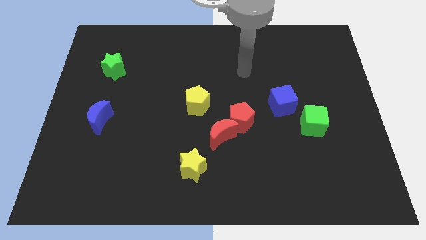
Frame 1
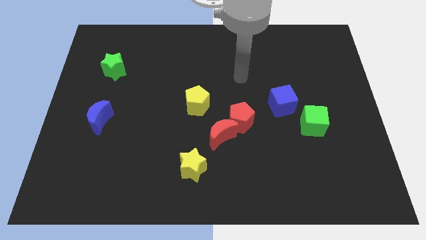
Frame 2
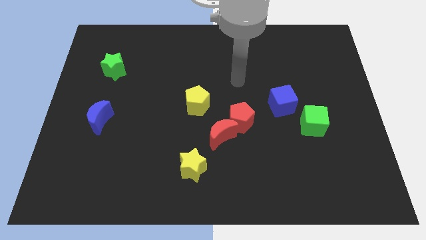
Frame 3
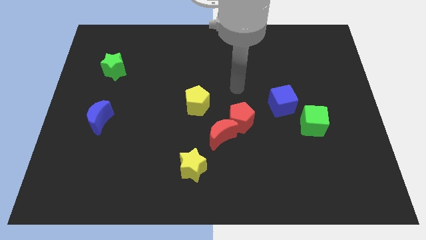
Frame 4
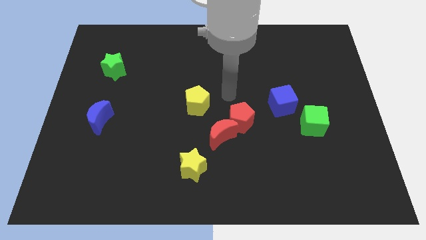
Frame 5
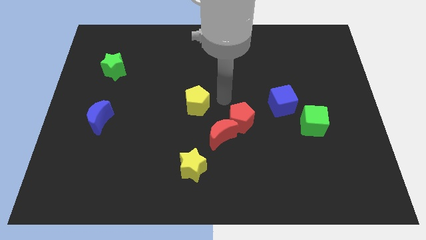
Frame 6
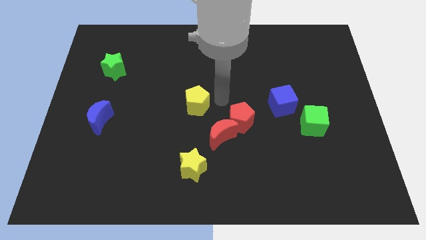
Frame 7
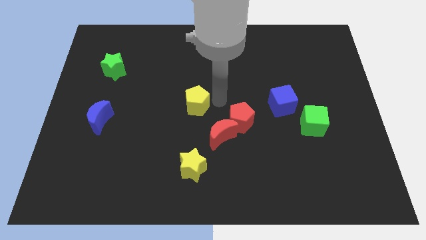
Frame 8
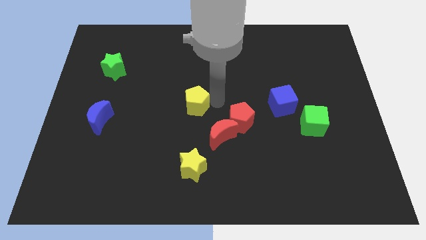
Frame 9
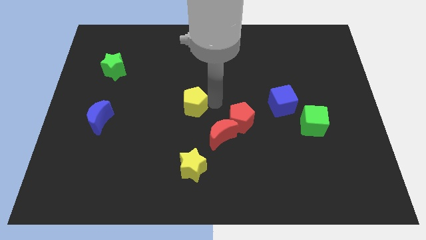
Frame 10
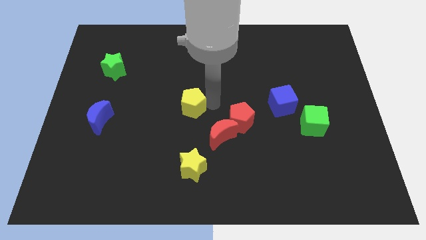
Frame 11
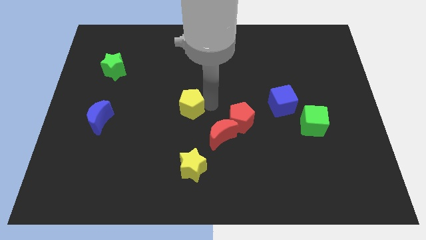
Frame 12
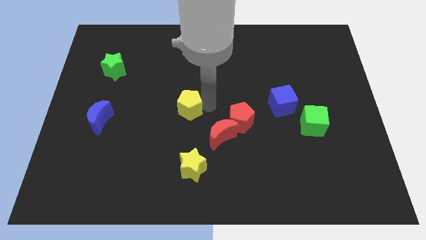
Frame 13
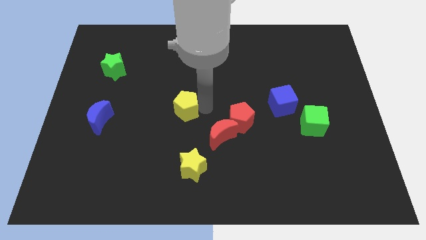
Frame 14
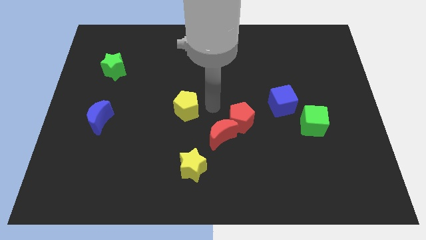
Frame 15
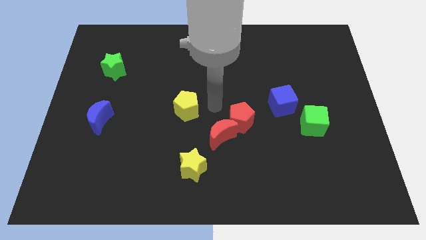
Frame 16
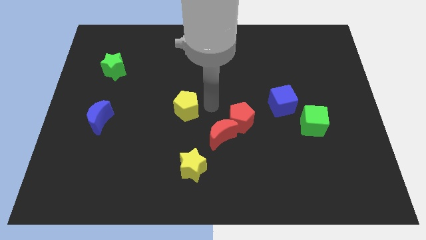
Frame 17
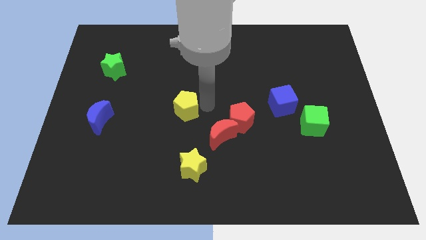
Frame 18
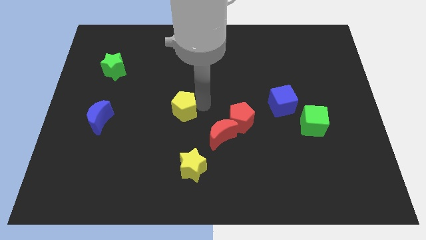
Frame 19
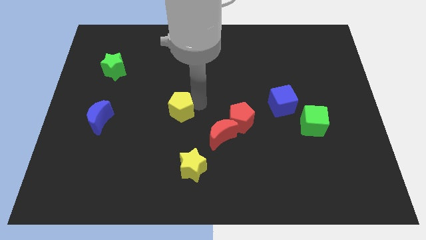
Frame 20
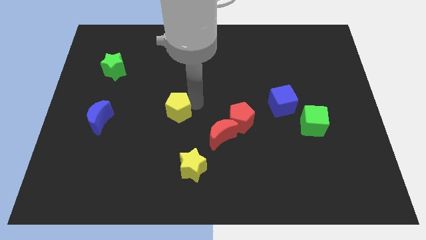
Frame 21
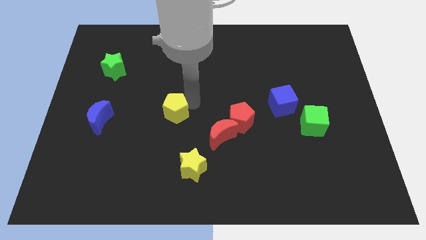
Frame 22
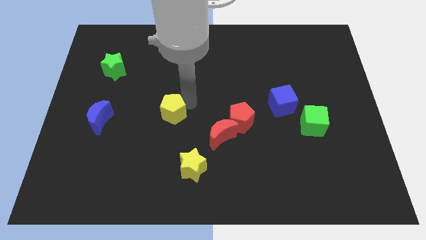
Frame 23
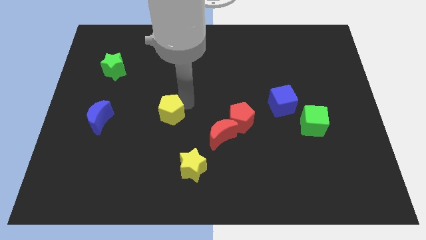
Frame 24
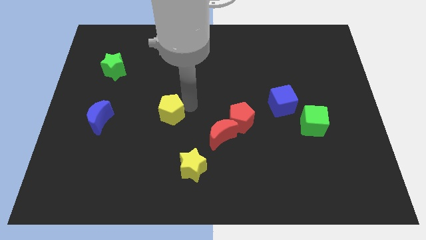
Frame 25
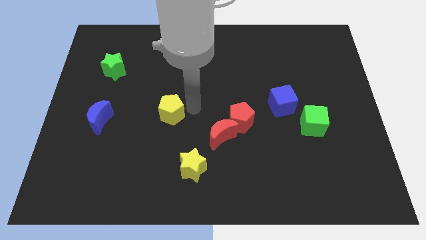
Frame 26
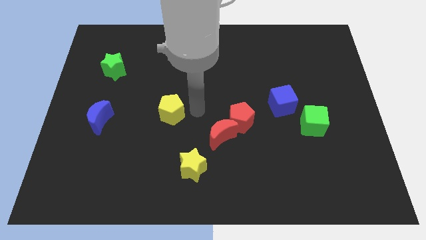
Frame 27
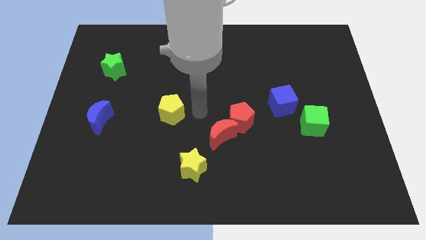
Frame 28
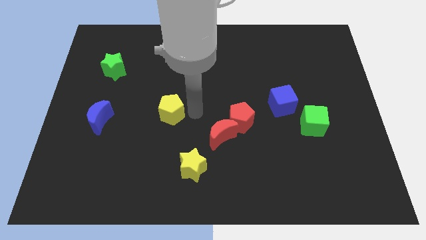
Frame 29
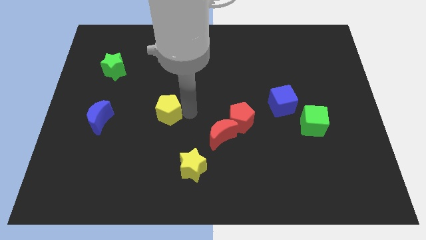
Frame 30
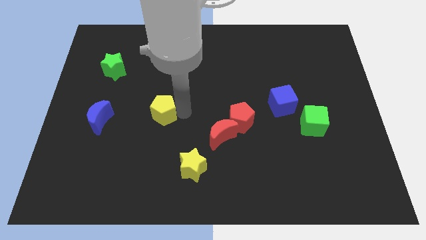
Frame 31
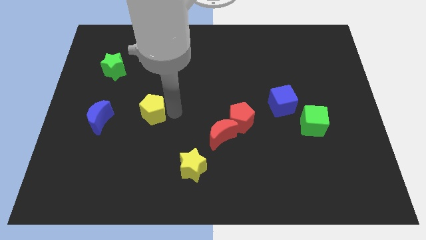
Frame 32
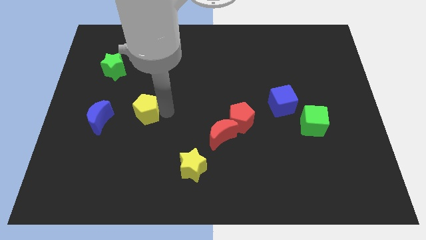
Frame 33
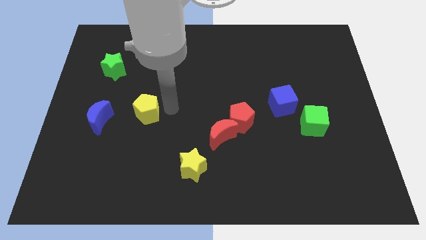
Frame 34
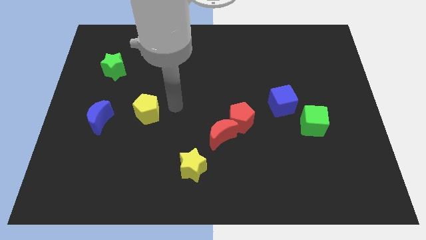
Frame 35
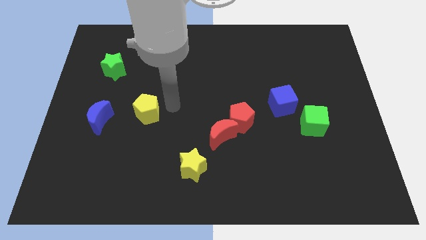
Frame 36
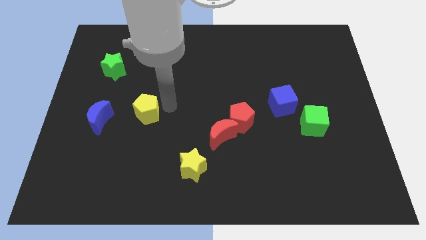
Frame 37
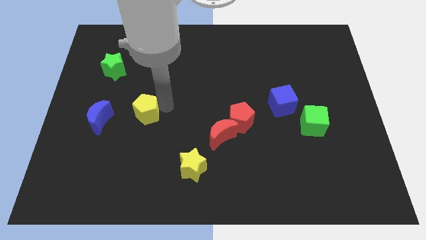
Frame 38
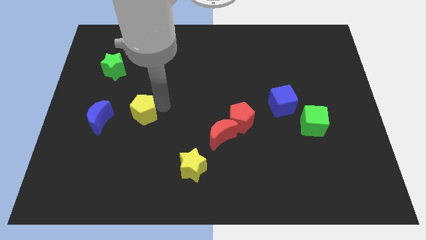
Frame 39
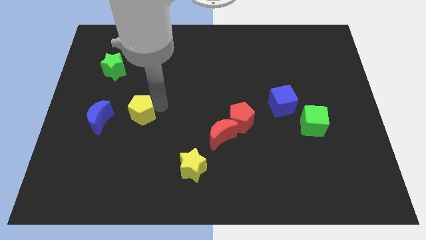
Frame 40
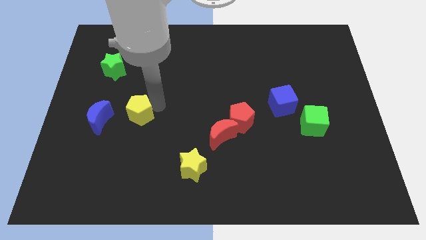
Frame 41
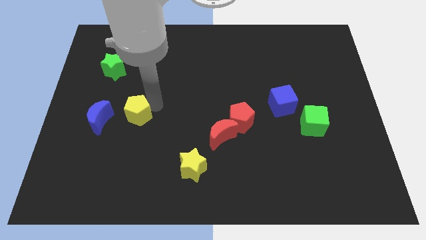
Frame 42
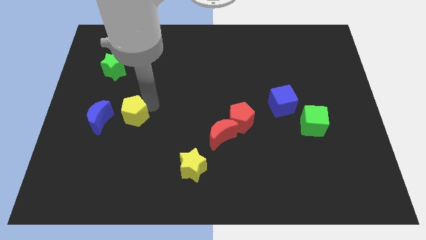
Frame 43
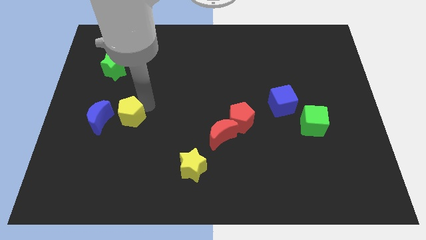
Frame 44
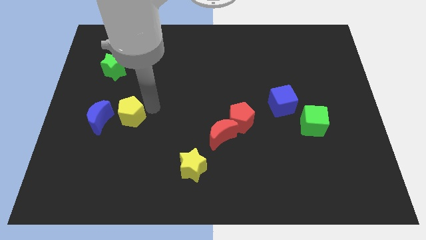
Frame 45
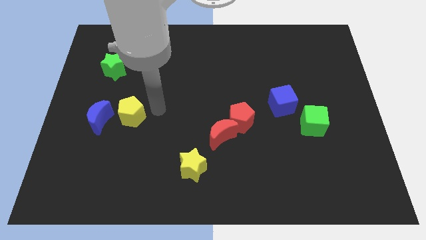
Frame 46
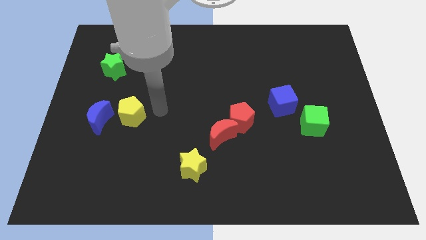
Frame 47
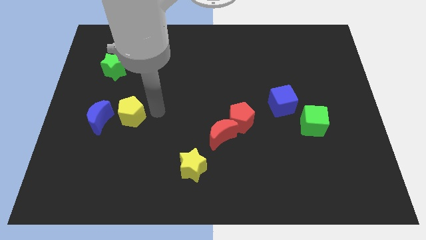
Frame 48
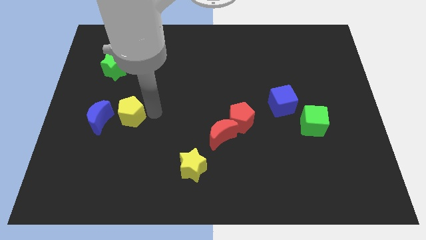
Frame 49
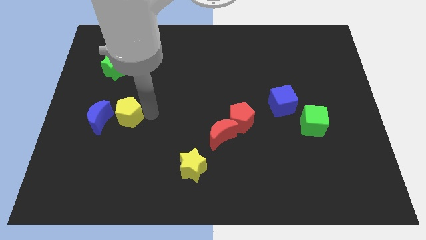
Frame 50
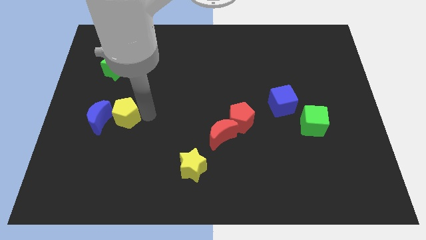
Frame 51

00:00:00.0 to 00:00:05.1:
slide the yellow pentagon close to the blue moon

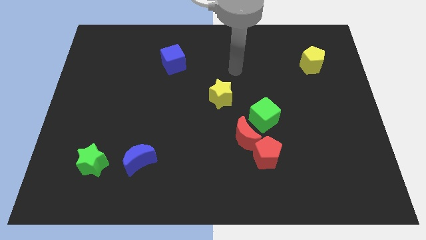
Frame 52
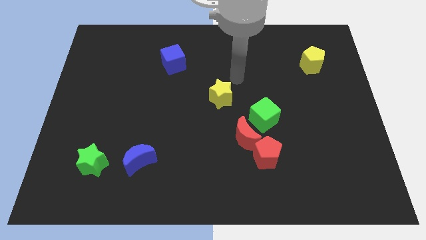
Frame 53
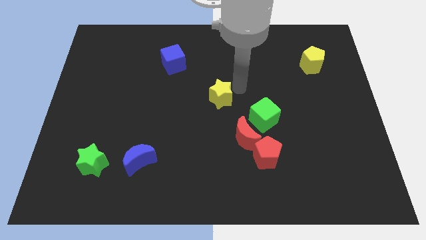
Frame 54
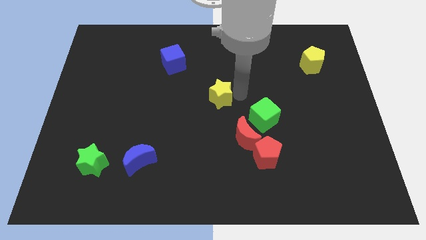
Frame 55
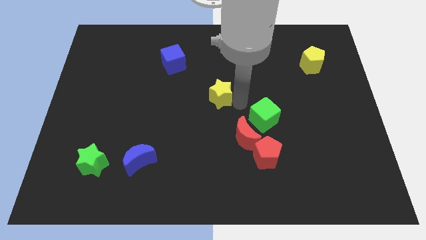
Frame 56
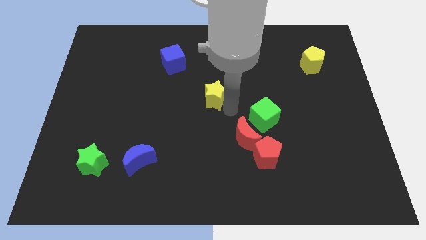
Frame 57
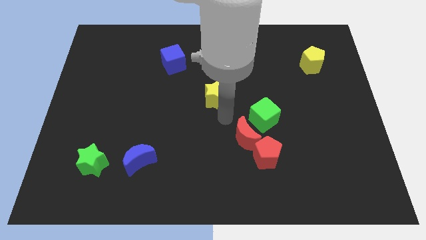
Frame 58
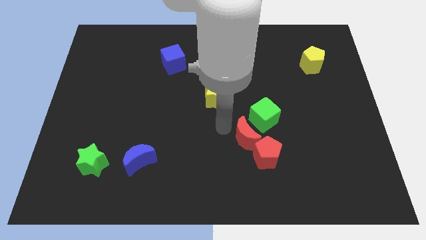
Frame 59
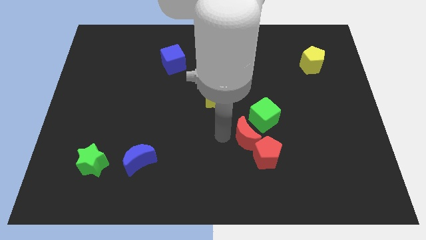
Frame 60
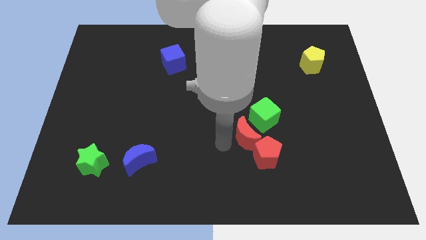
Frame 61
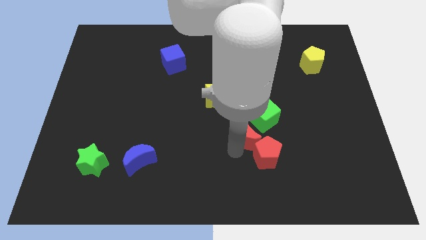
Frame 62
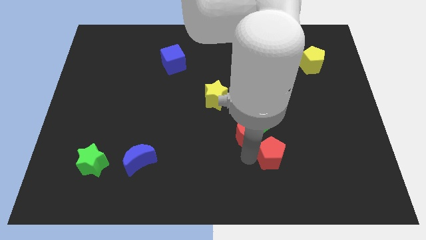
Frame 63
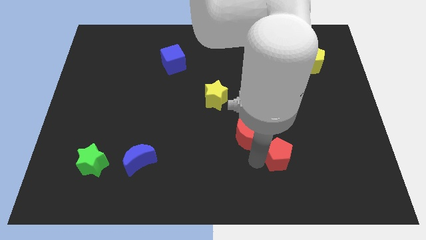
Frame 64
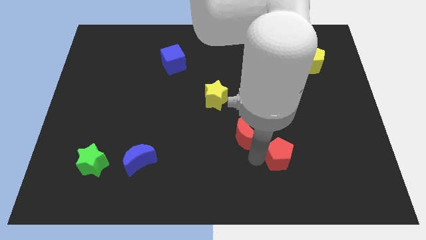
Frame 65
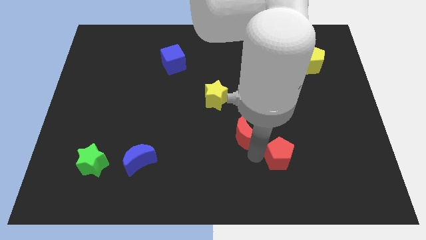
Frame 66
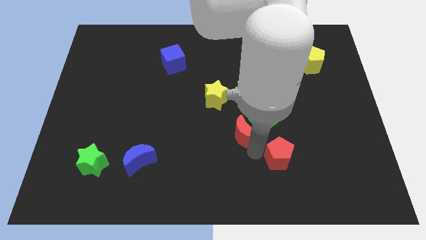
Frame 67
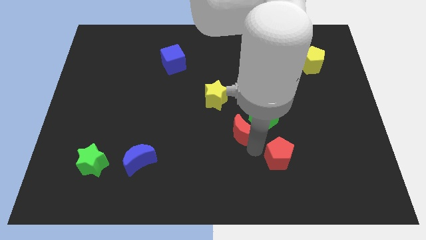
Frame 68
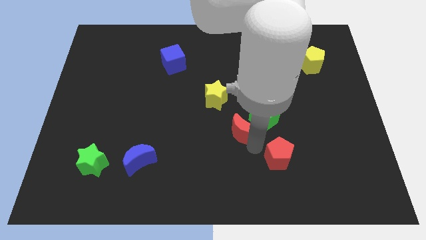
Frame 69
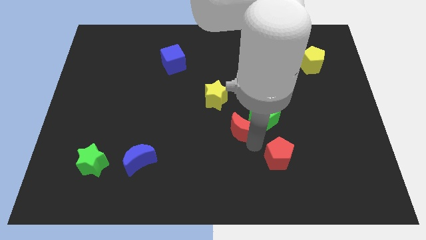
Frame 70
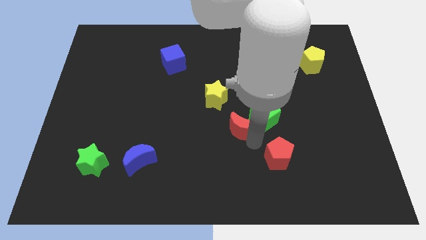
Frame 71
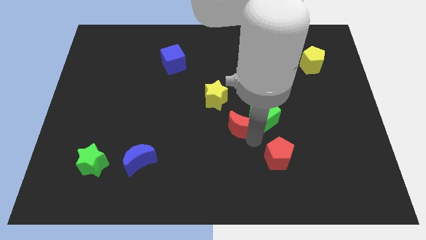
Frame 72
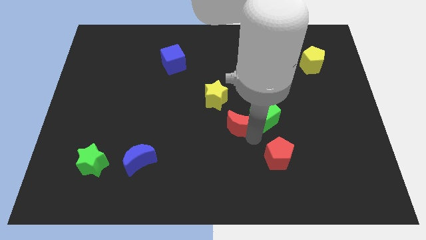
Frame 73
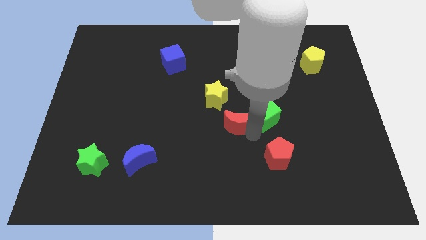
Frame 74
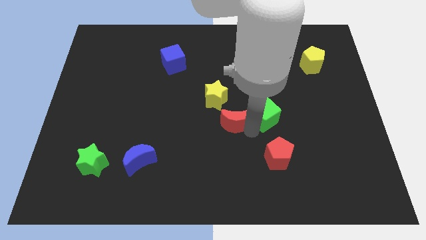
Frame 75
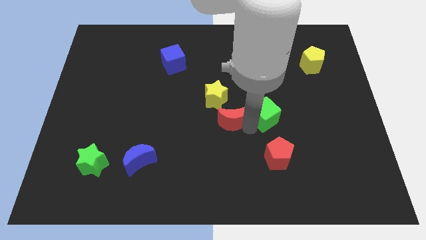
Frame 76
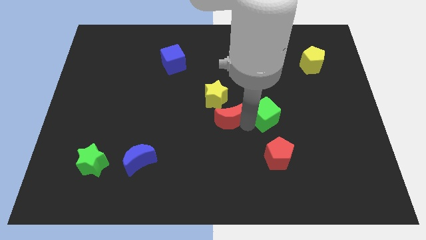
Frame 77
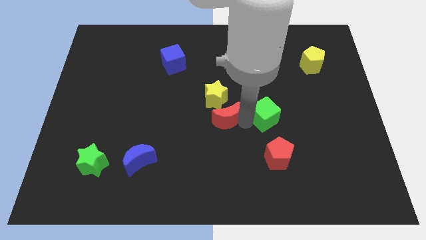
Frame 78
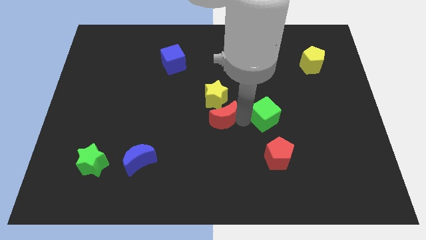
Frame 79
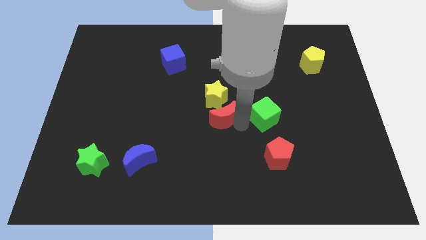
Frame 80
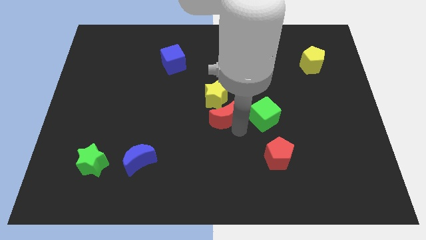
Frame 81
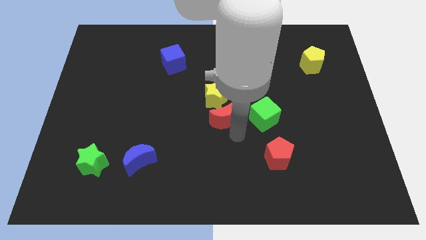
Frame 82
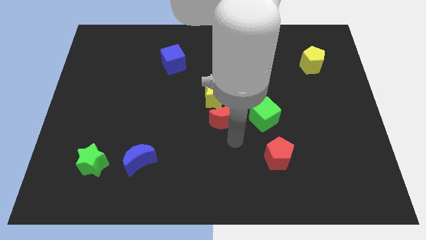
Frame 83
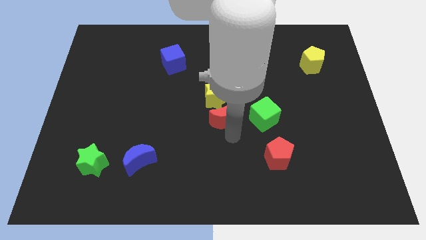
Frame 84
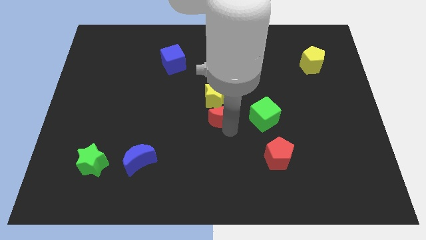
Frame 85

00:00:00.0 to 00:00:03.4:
put the red moon close to the yellow star
